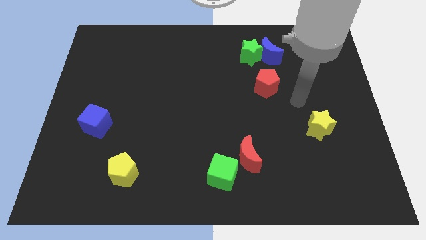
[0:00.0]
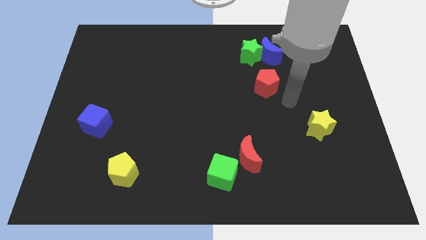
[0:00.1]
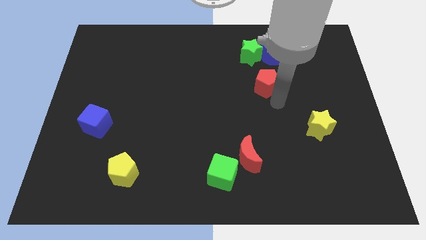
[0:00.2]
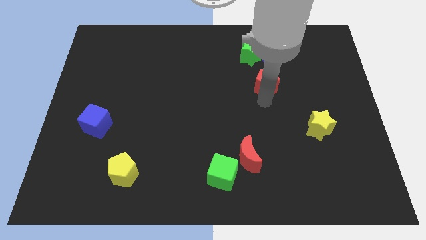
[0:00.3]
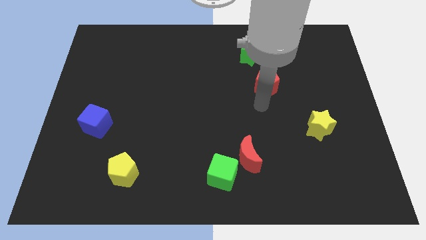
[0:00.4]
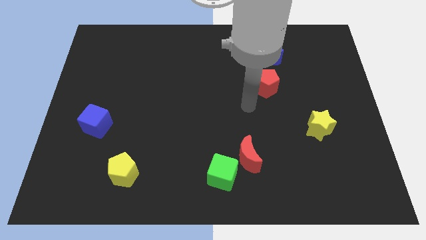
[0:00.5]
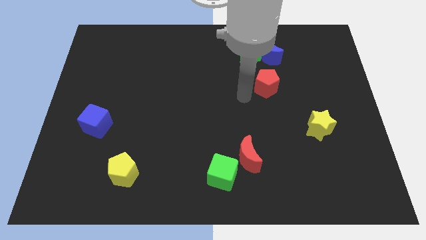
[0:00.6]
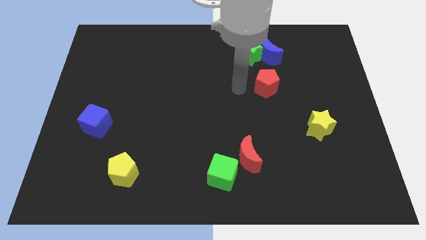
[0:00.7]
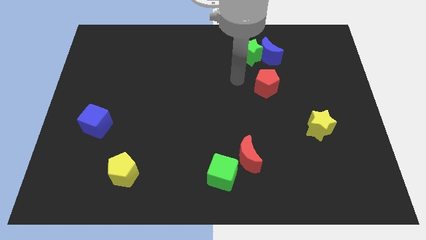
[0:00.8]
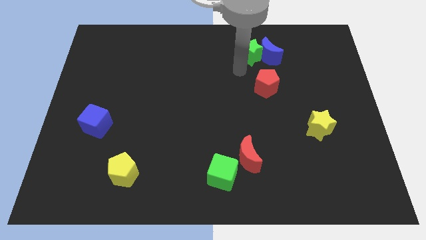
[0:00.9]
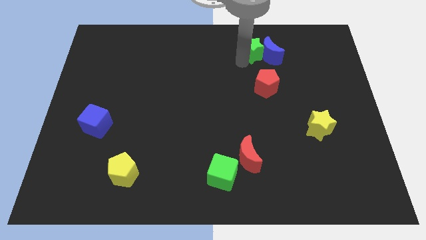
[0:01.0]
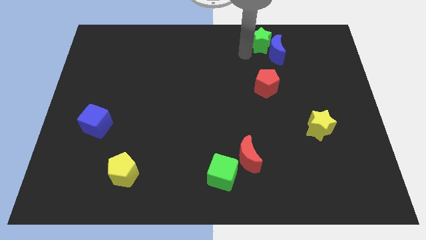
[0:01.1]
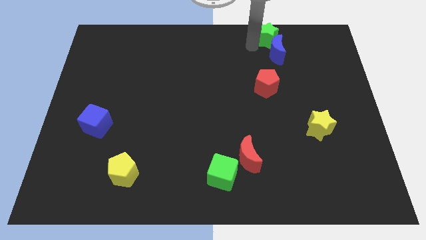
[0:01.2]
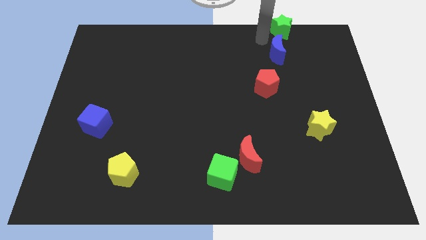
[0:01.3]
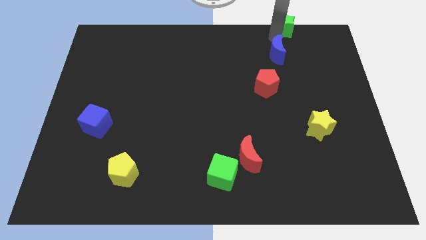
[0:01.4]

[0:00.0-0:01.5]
separate the blue moon from the green star

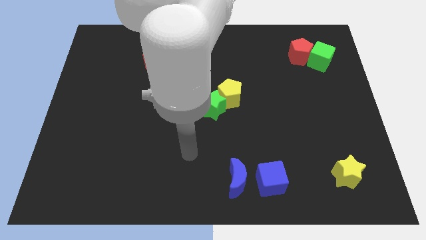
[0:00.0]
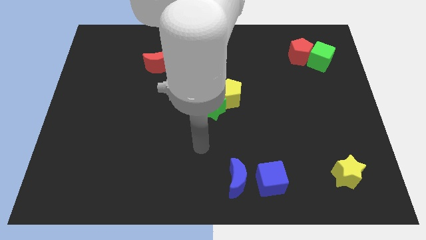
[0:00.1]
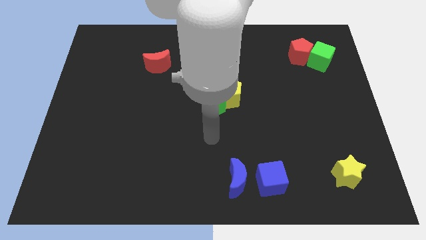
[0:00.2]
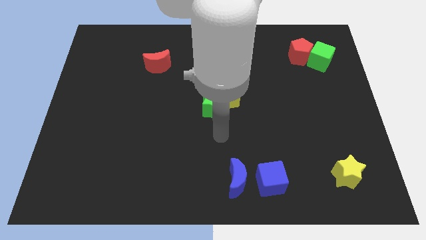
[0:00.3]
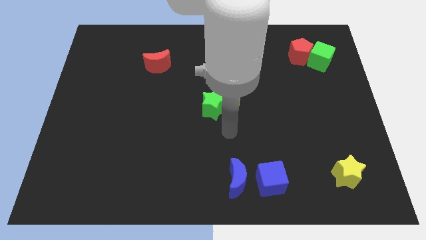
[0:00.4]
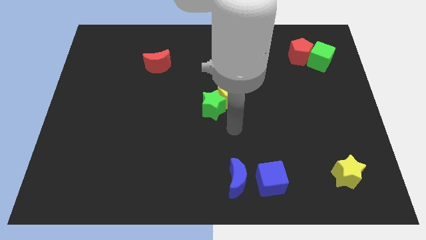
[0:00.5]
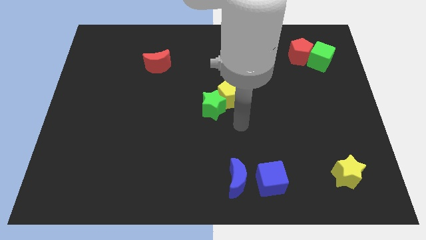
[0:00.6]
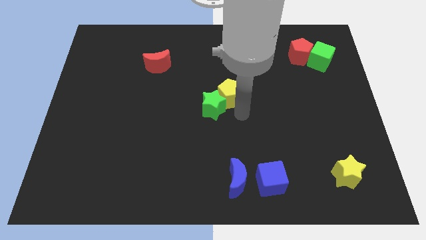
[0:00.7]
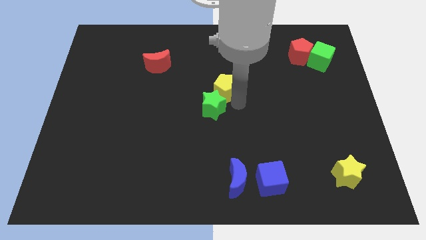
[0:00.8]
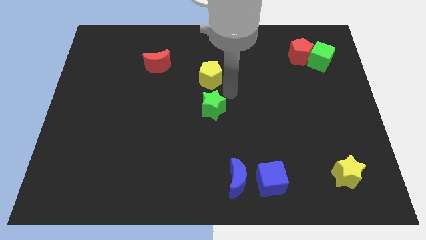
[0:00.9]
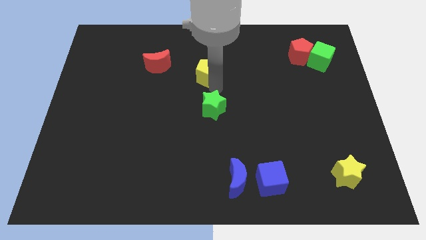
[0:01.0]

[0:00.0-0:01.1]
move the green star away from the yellow pentagon

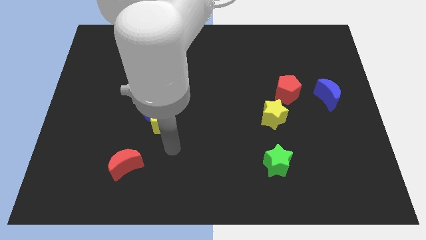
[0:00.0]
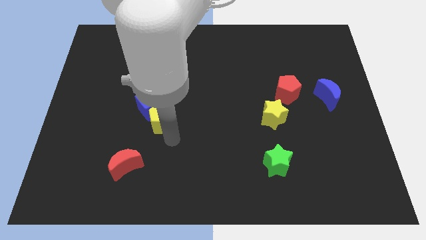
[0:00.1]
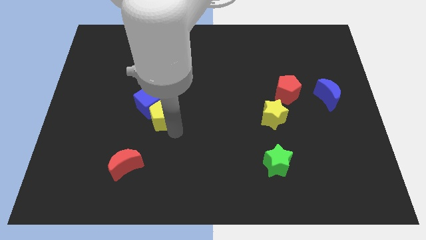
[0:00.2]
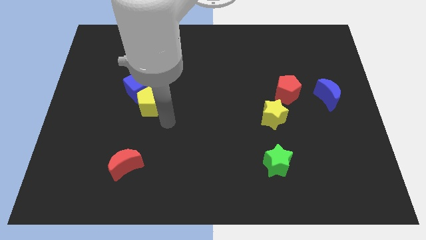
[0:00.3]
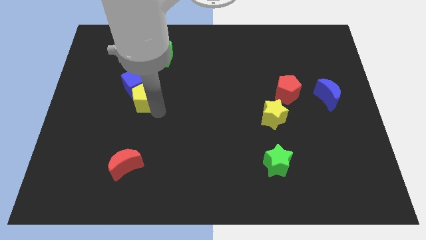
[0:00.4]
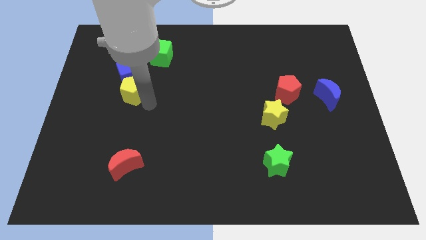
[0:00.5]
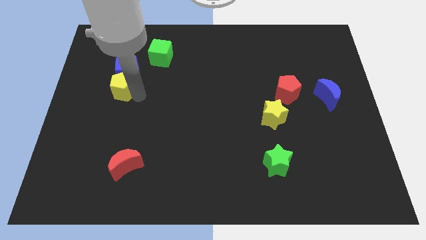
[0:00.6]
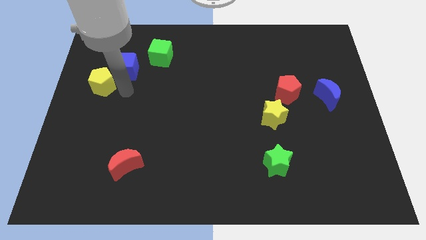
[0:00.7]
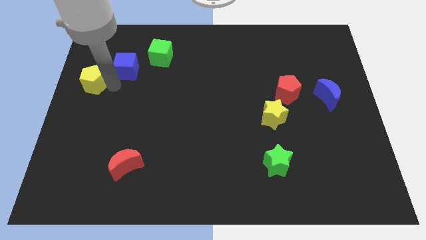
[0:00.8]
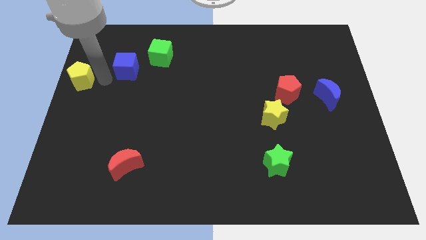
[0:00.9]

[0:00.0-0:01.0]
pull the blue cube apart from the yellow pentagon

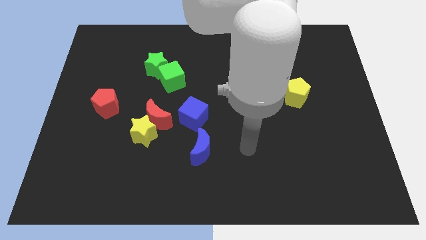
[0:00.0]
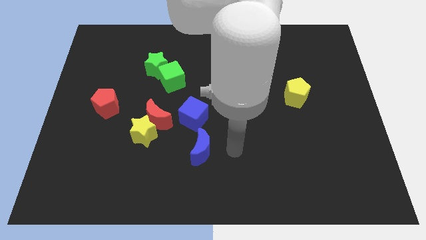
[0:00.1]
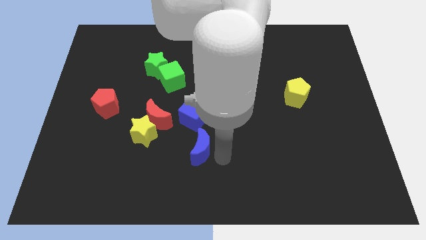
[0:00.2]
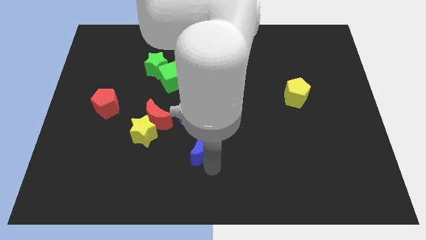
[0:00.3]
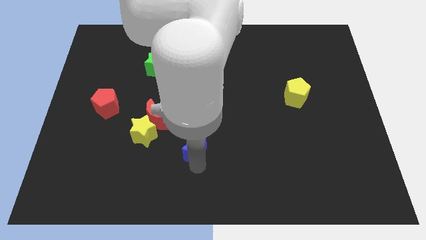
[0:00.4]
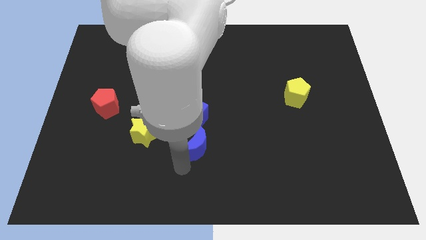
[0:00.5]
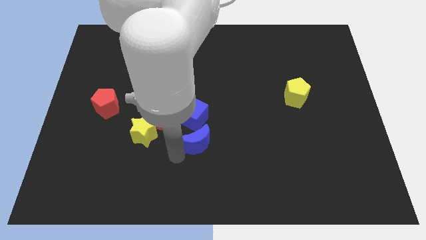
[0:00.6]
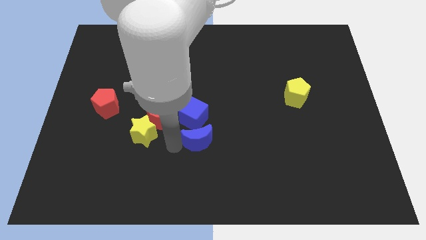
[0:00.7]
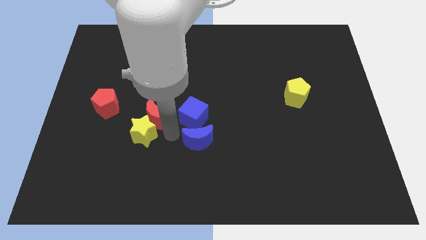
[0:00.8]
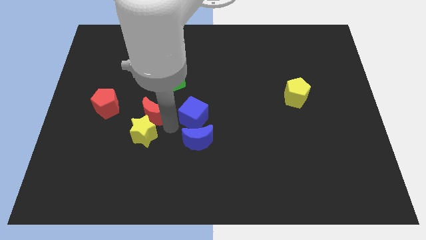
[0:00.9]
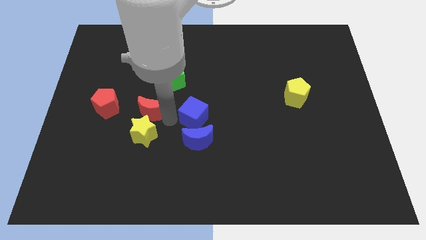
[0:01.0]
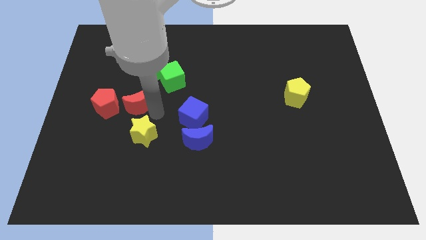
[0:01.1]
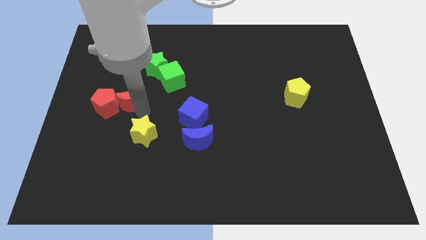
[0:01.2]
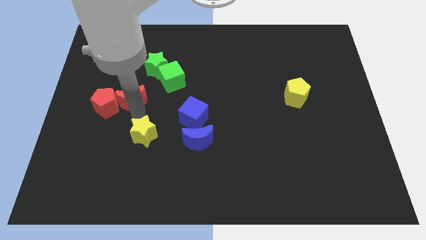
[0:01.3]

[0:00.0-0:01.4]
separate the yellow star from the red moon

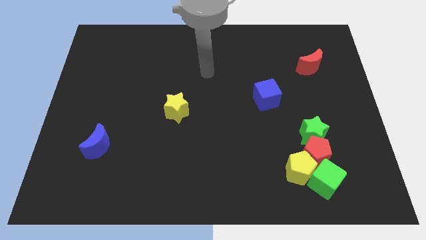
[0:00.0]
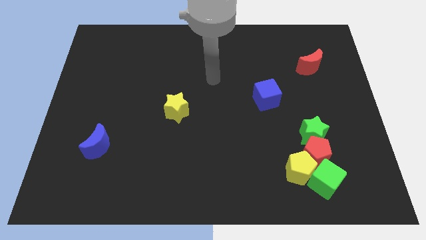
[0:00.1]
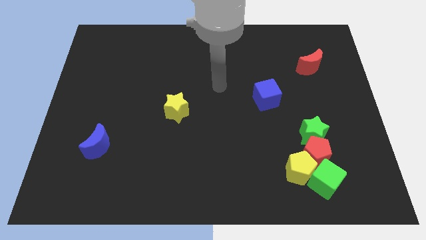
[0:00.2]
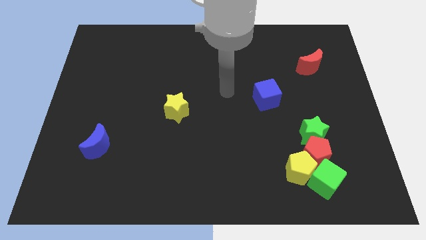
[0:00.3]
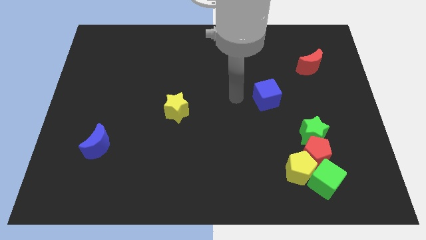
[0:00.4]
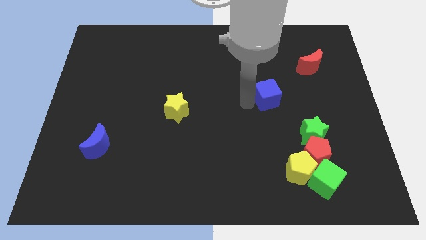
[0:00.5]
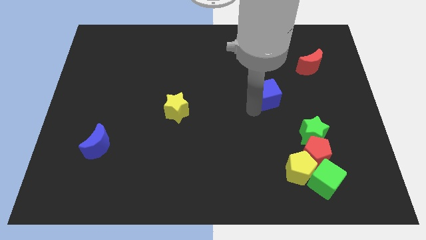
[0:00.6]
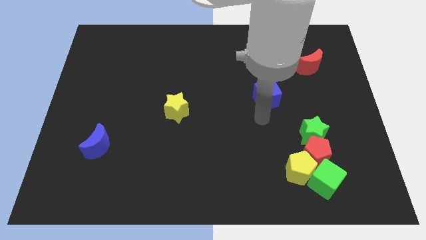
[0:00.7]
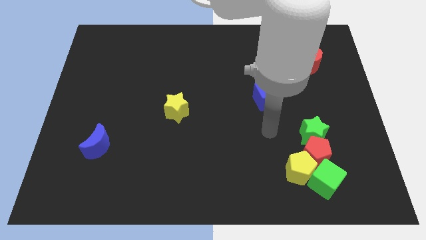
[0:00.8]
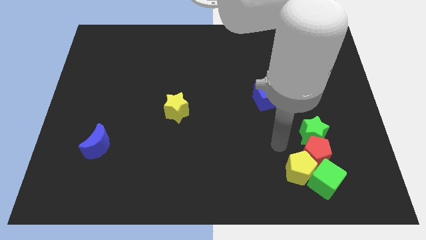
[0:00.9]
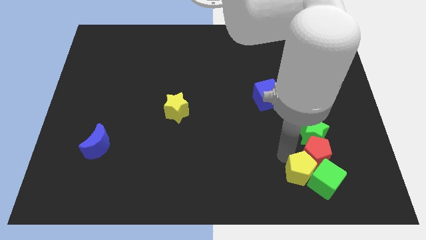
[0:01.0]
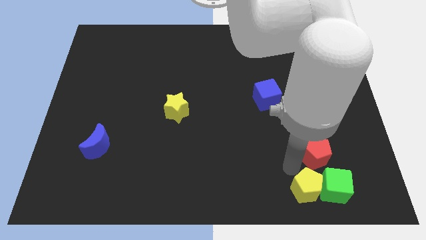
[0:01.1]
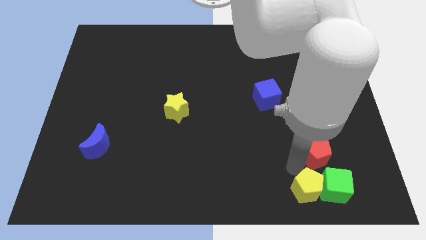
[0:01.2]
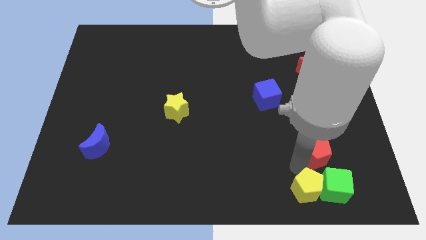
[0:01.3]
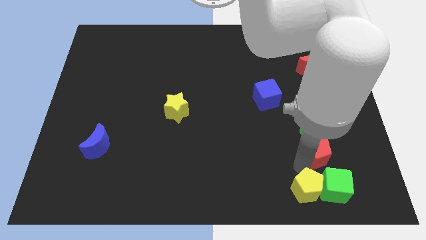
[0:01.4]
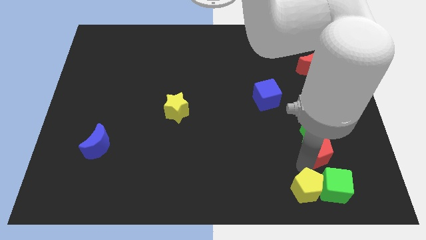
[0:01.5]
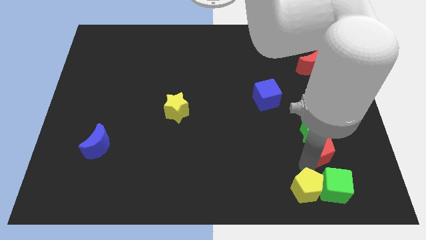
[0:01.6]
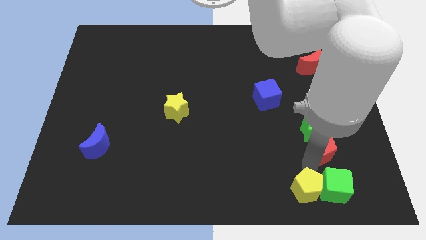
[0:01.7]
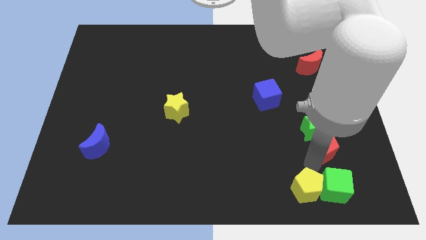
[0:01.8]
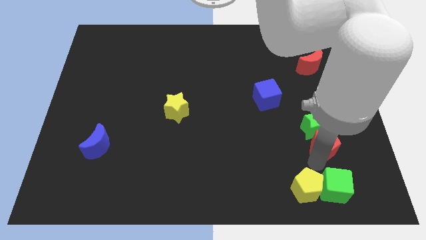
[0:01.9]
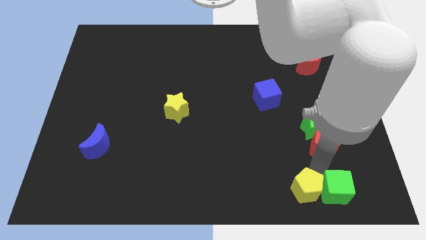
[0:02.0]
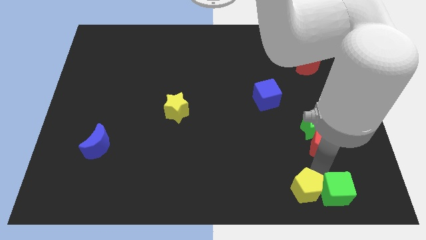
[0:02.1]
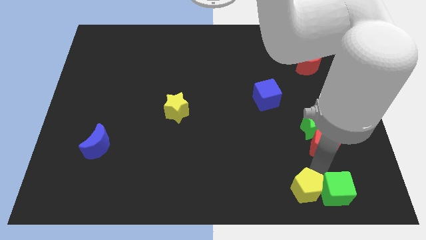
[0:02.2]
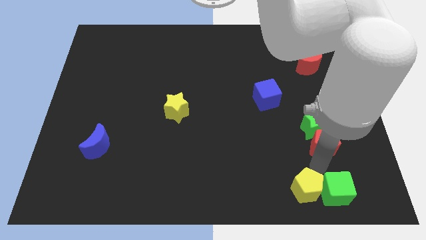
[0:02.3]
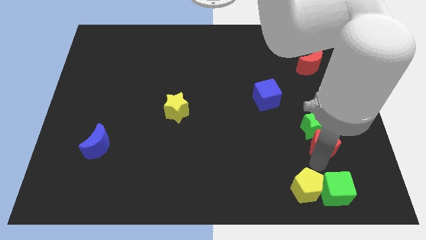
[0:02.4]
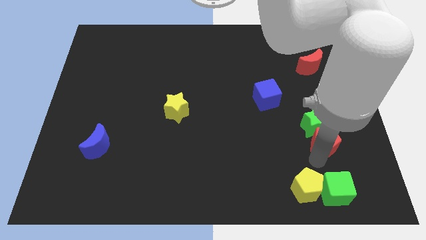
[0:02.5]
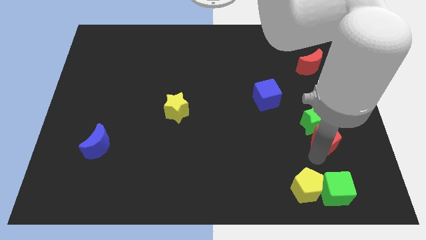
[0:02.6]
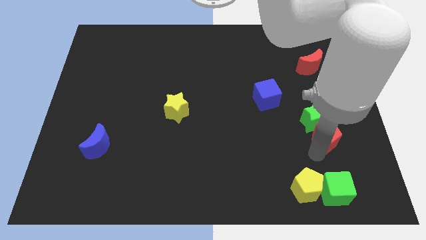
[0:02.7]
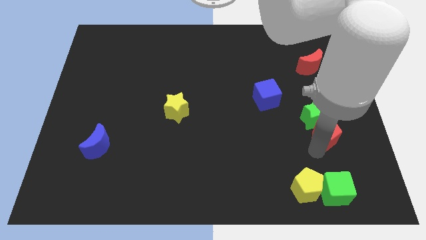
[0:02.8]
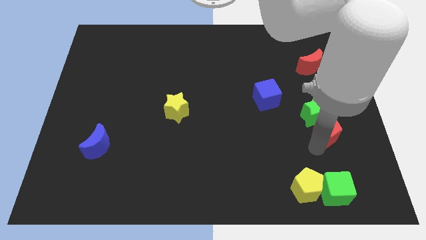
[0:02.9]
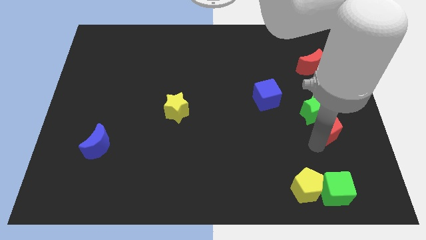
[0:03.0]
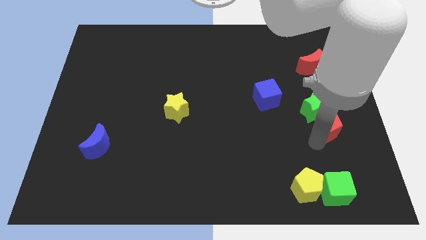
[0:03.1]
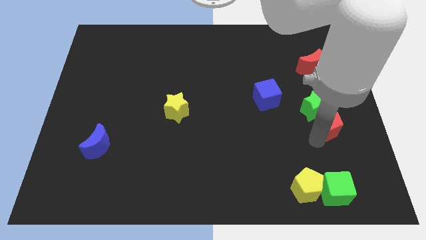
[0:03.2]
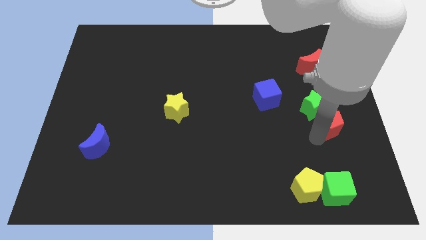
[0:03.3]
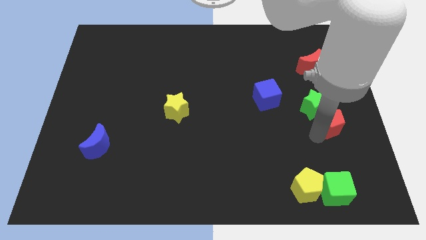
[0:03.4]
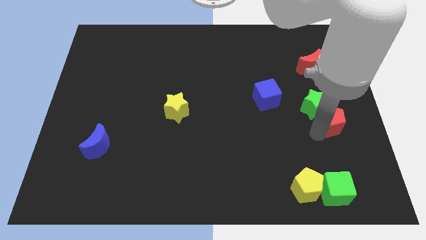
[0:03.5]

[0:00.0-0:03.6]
move the red pentagon away from the clump

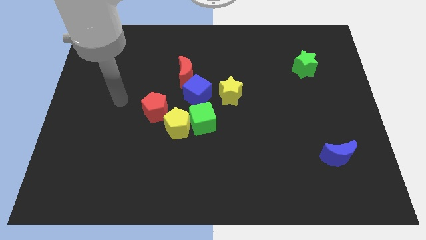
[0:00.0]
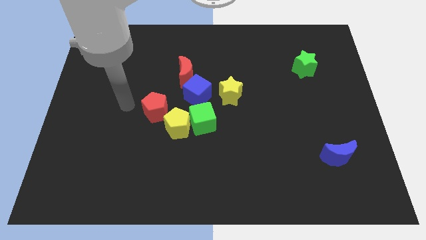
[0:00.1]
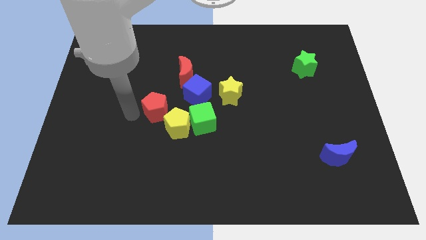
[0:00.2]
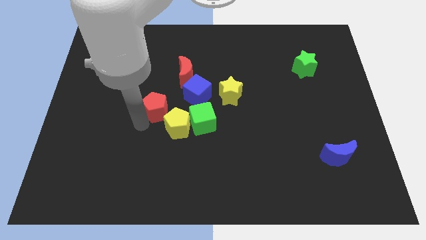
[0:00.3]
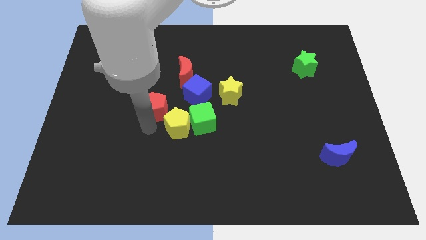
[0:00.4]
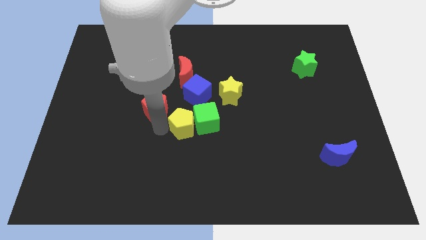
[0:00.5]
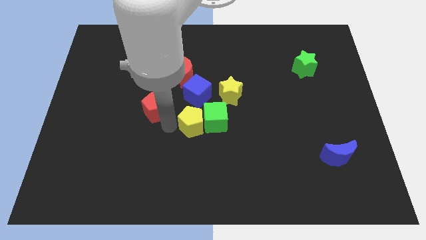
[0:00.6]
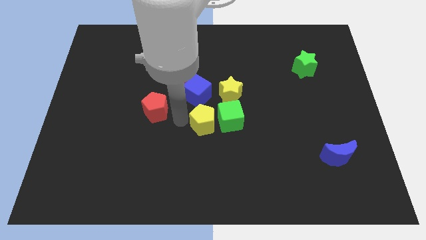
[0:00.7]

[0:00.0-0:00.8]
move the red pentagon away from the yellow pentagon
